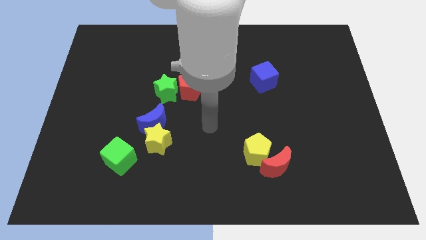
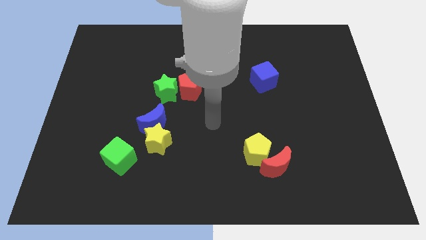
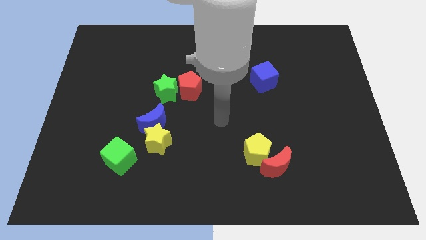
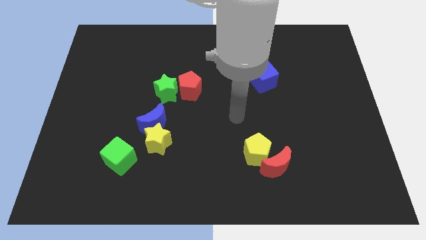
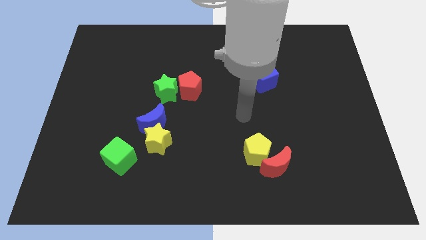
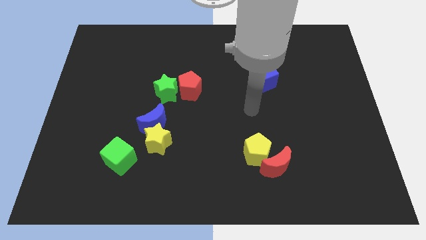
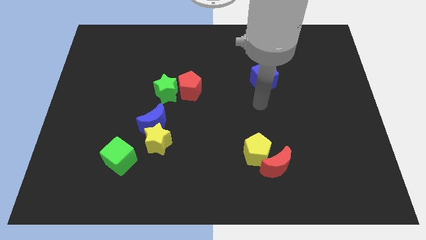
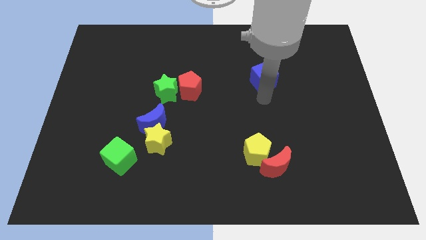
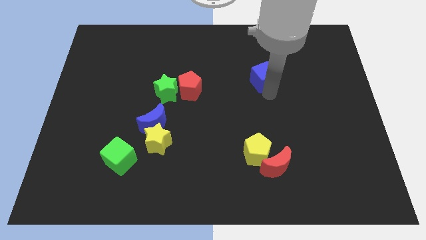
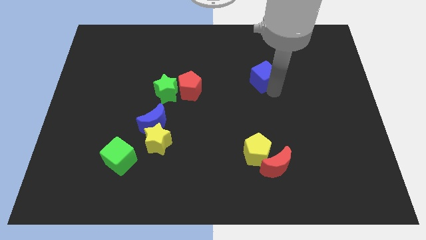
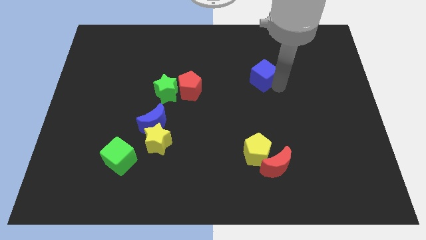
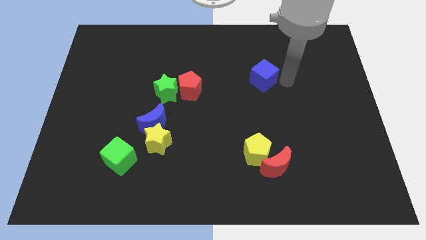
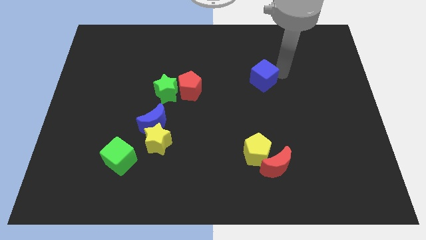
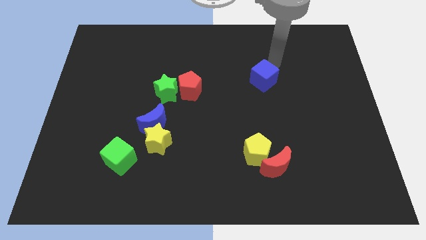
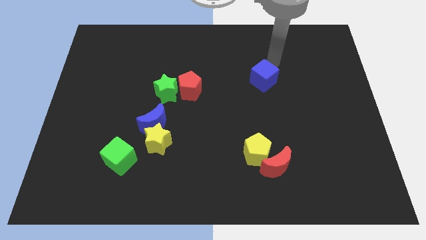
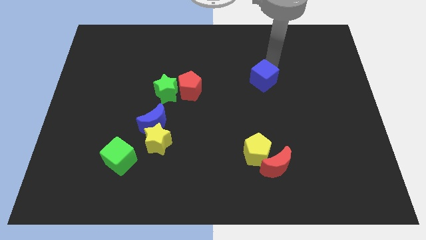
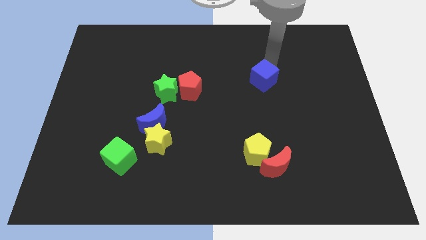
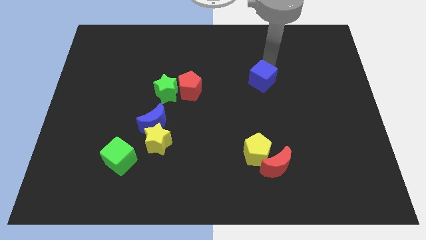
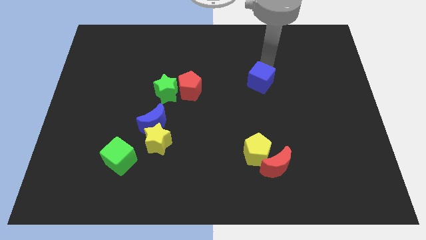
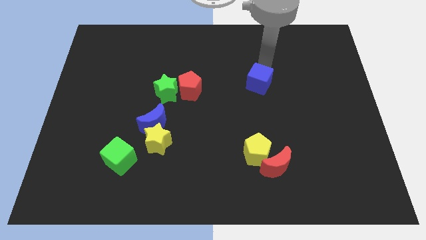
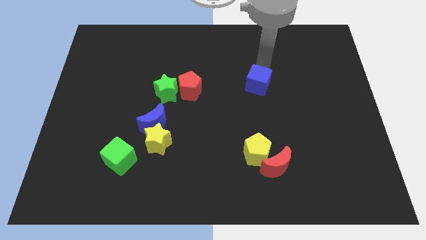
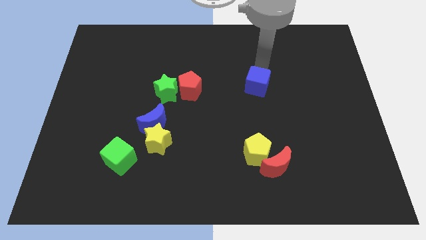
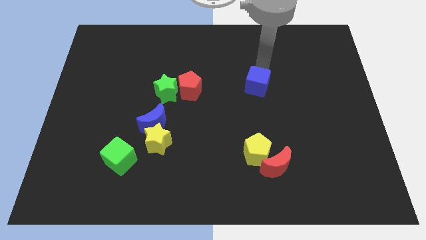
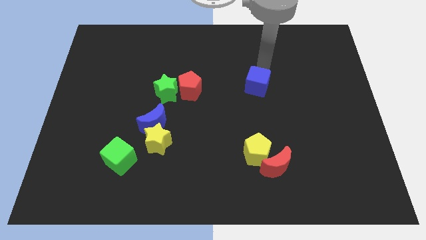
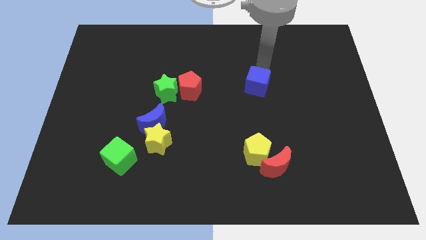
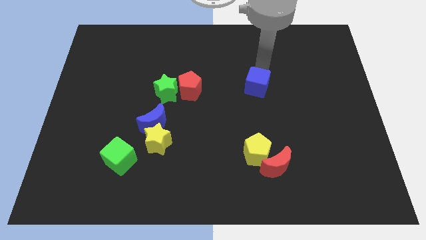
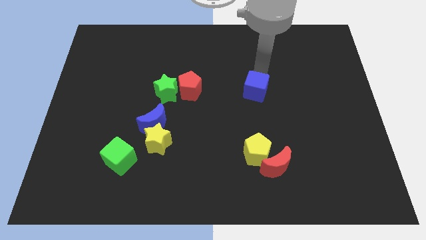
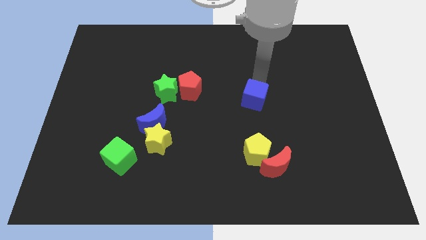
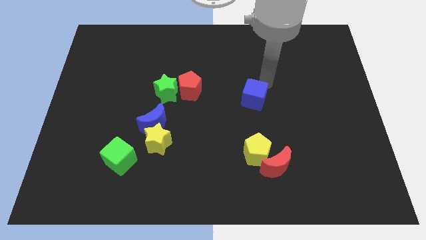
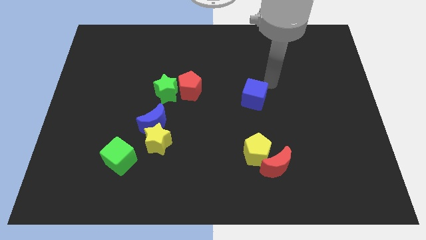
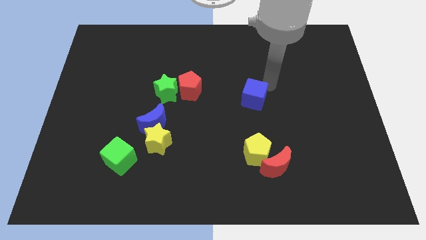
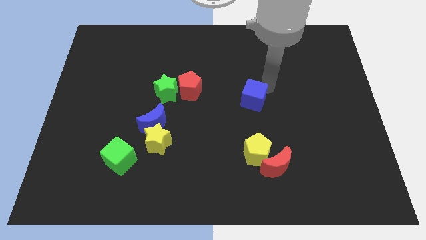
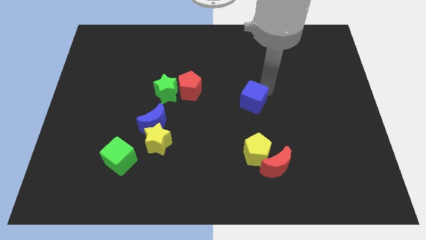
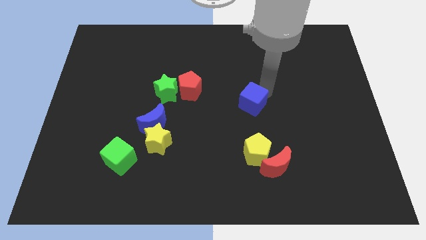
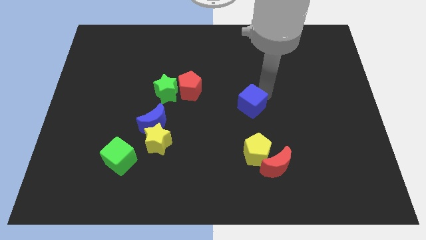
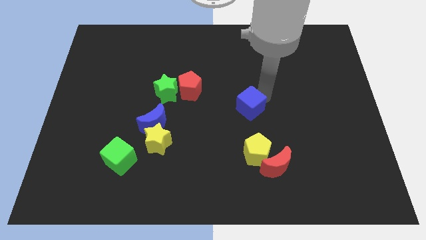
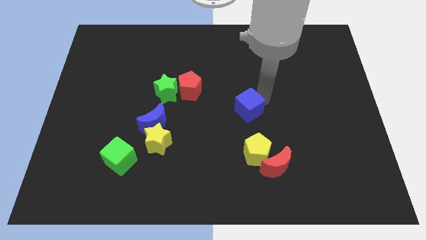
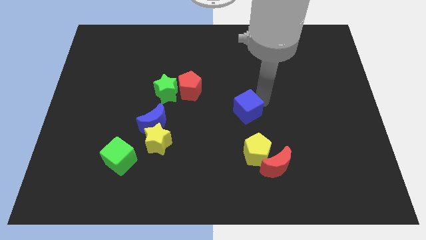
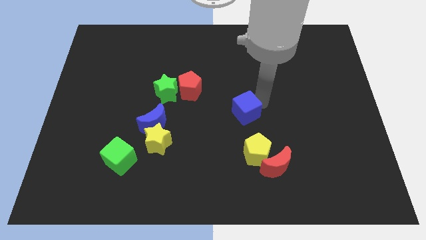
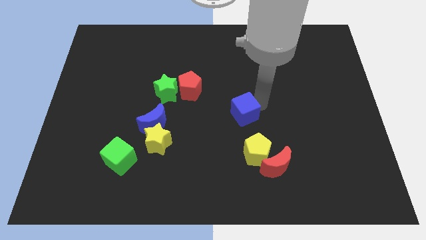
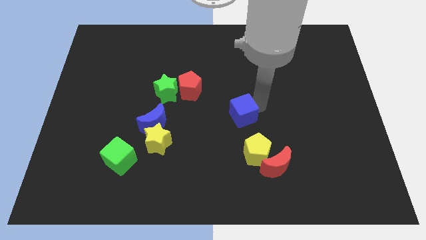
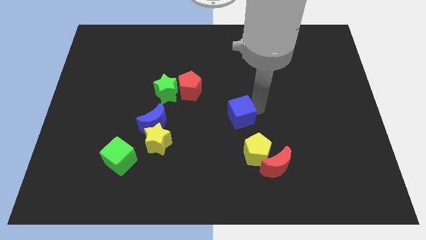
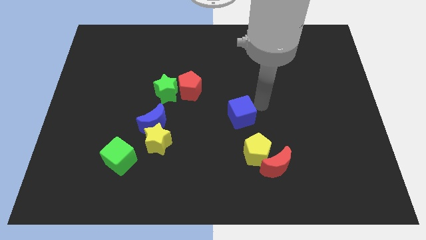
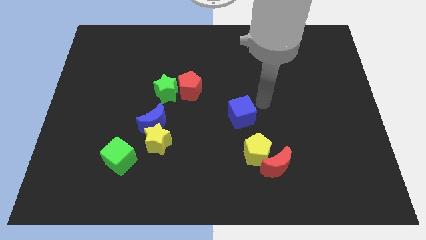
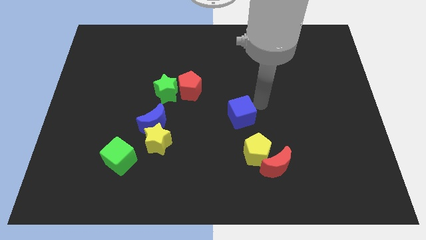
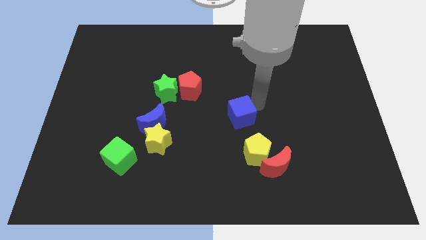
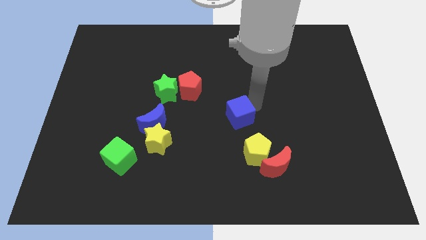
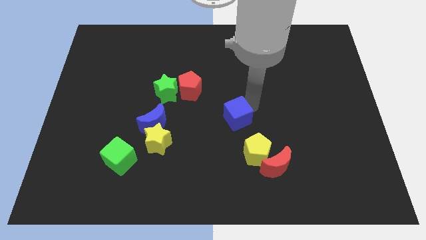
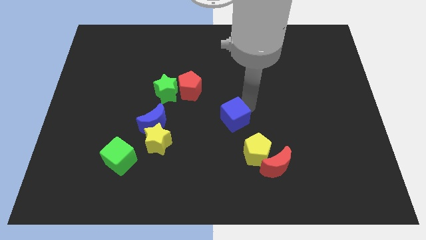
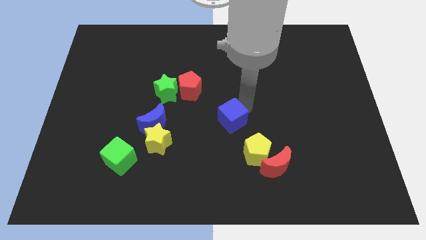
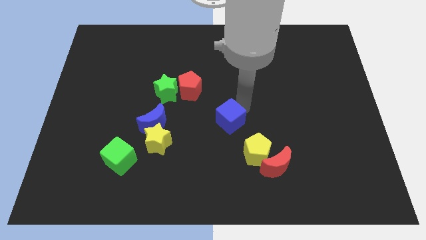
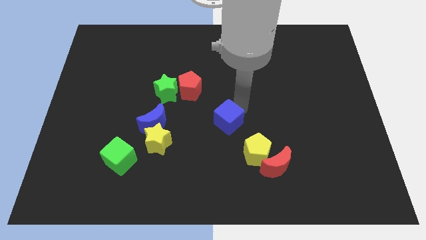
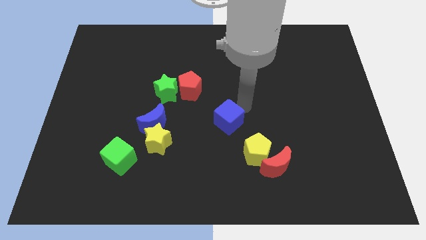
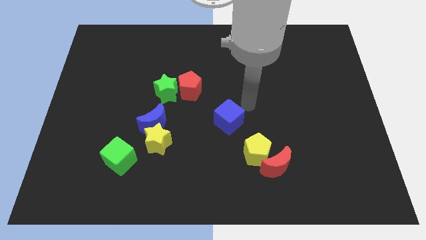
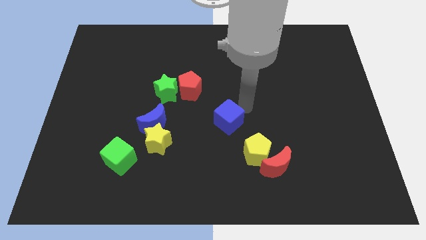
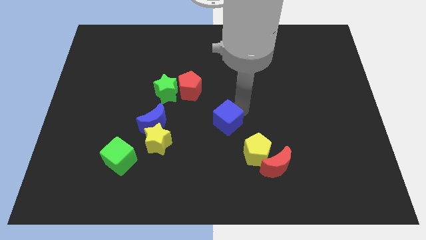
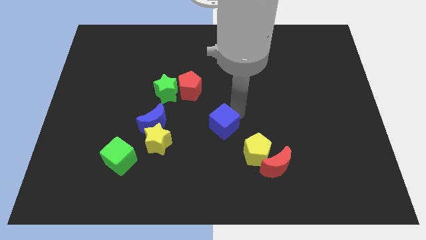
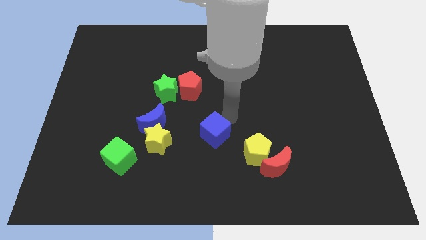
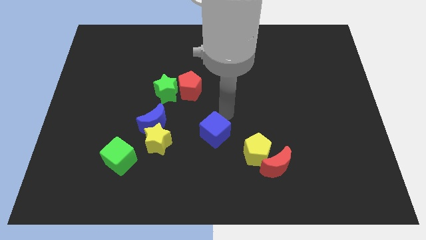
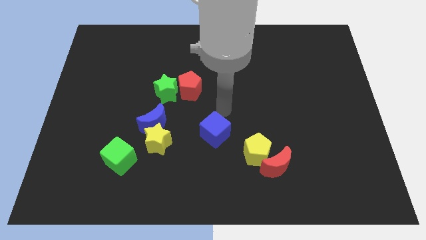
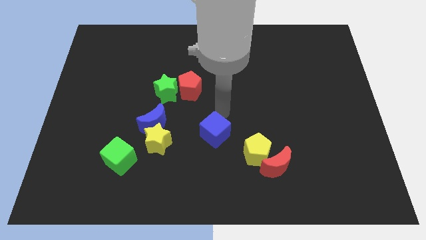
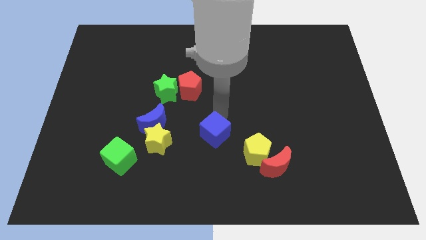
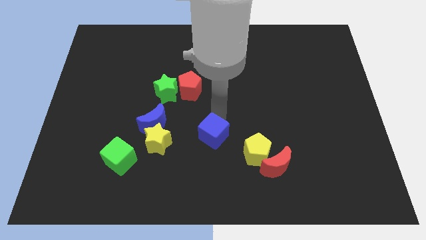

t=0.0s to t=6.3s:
move the blue cube to the left of the yellow pentagon

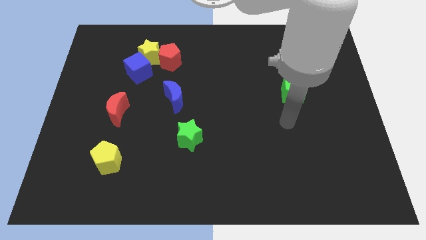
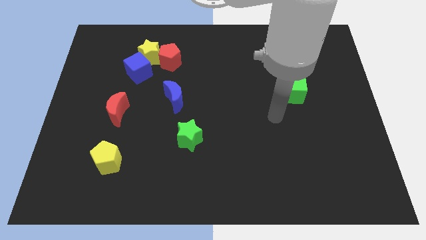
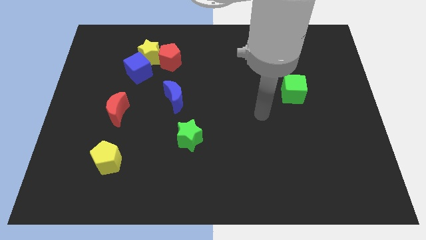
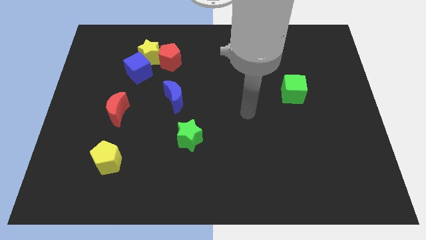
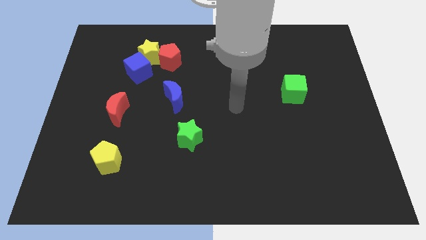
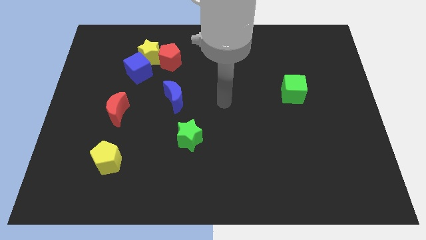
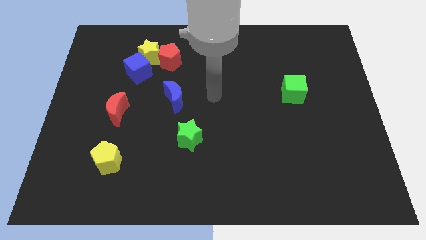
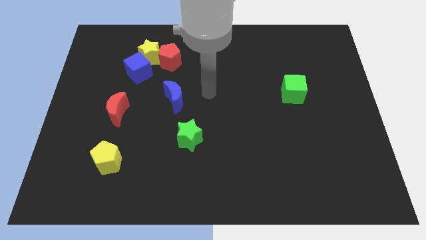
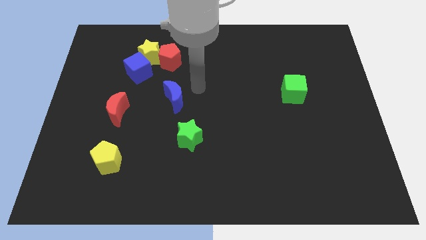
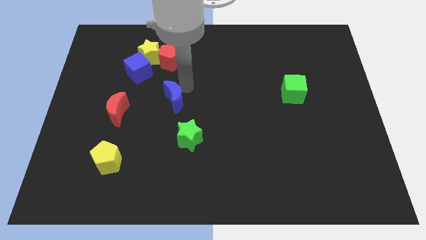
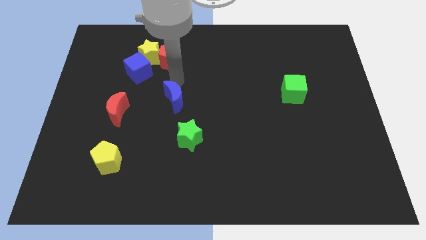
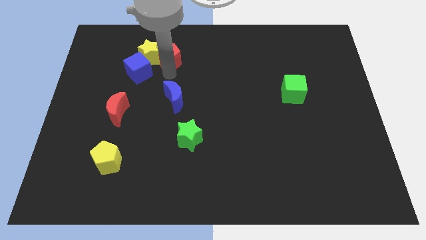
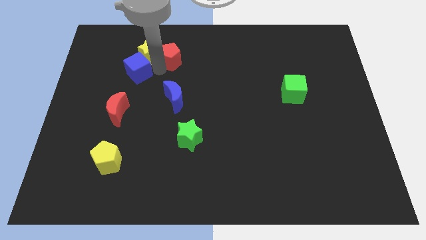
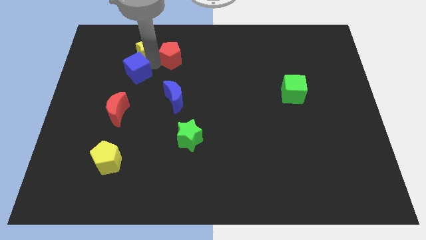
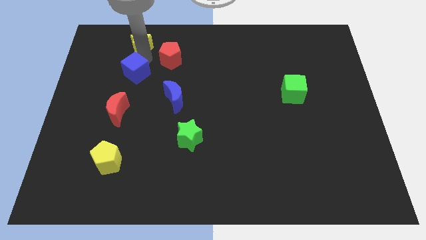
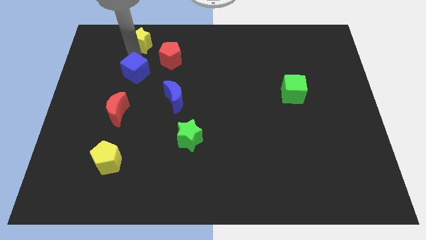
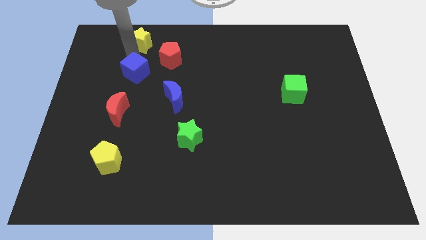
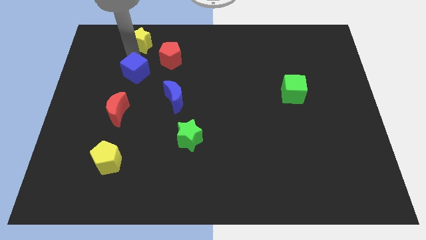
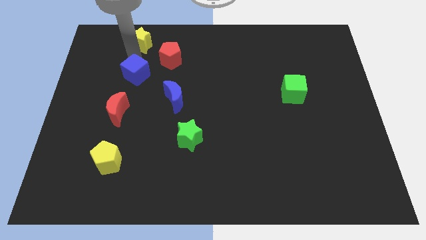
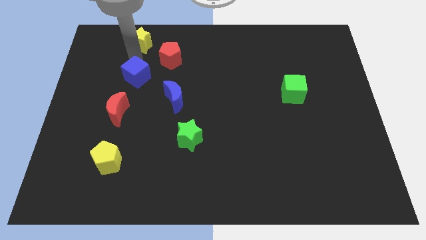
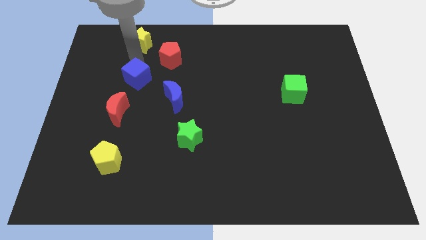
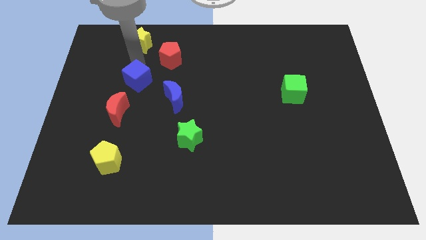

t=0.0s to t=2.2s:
move the blue cube to the top right of the red moon

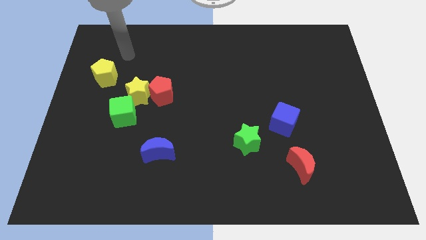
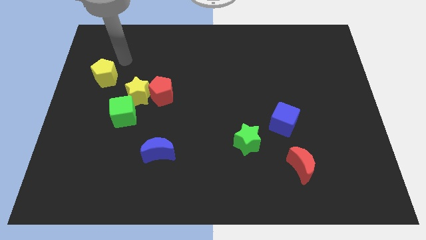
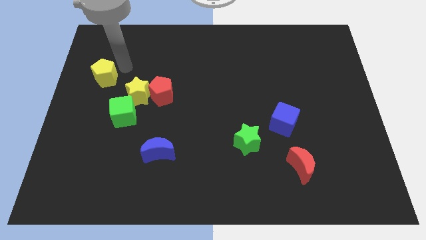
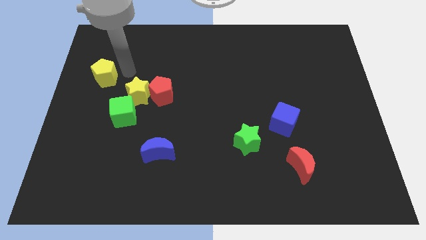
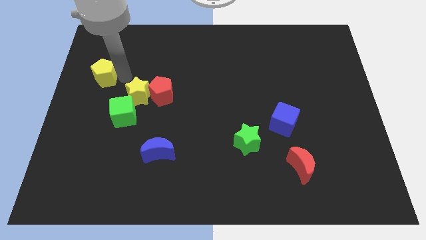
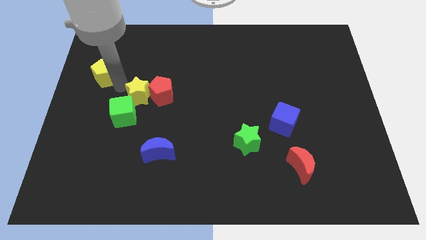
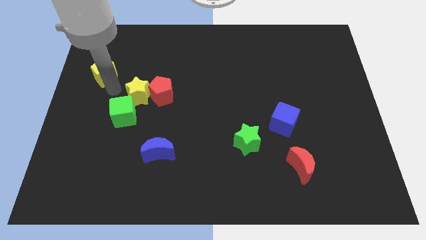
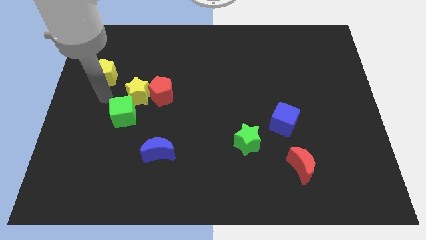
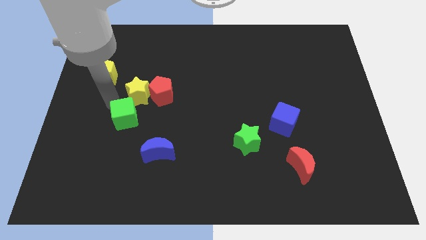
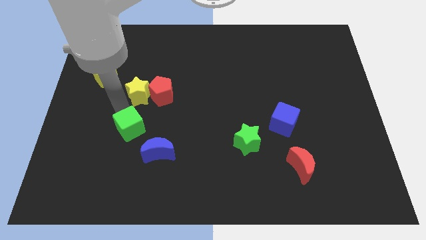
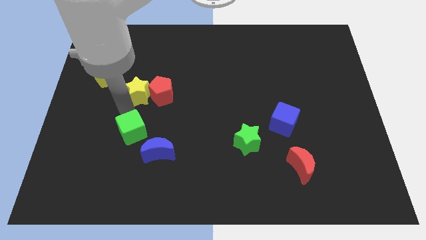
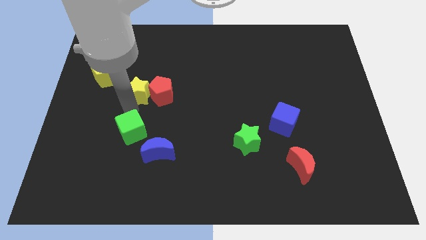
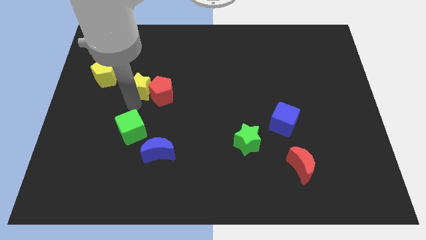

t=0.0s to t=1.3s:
move the yellow star to the right side of the yellow pentagon
